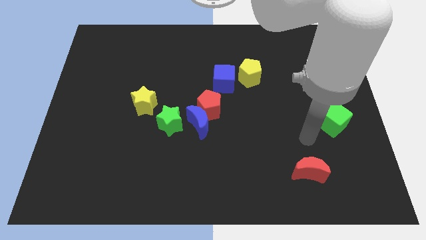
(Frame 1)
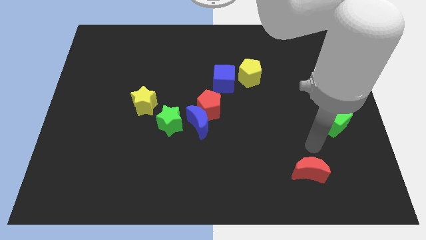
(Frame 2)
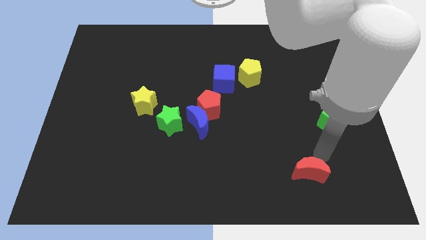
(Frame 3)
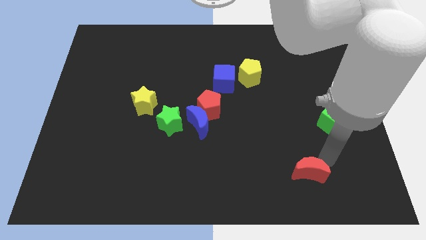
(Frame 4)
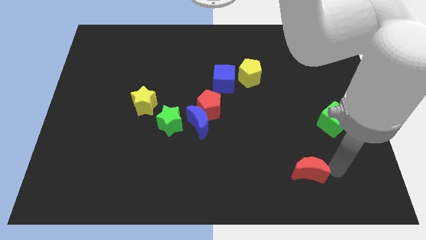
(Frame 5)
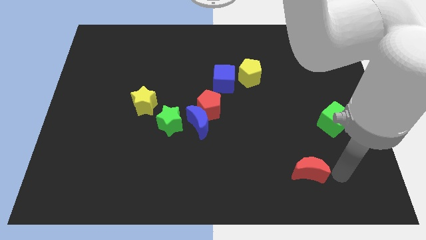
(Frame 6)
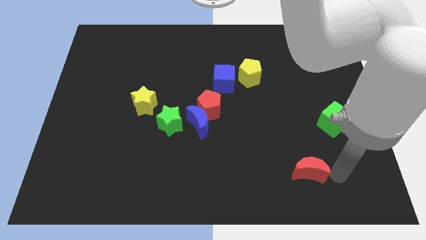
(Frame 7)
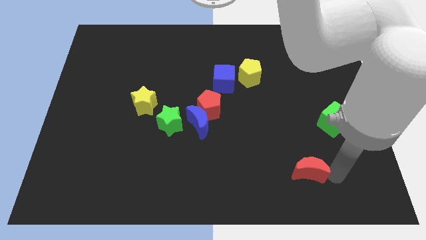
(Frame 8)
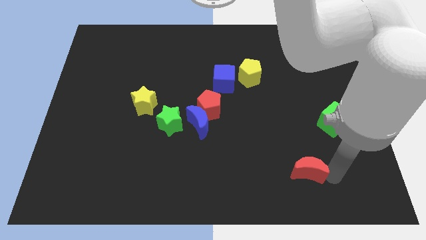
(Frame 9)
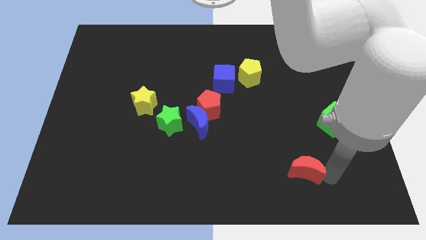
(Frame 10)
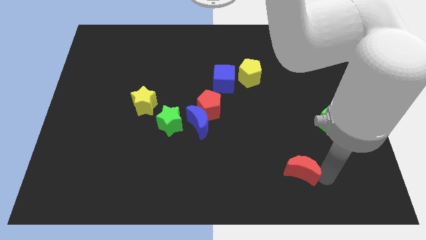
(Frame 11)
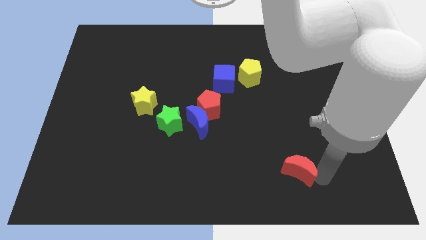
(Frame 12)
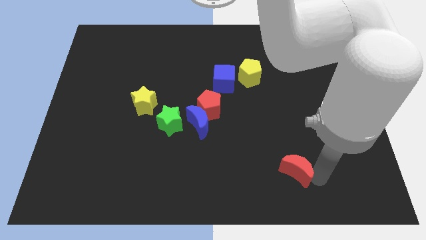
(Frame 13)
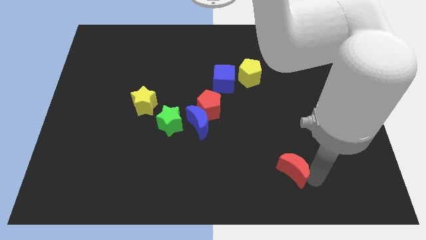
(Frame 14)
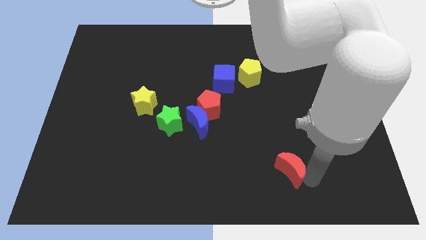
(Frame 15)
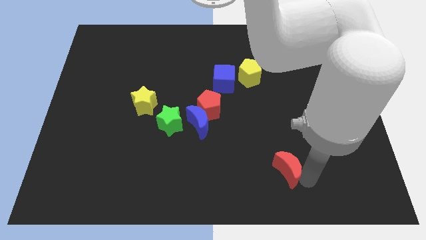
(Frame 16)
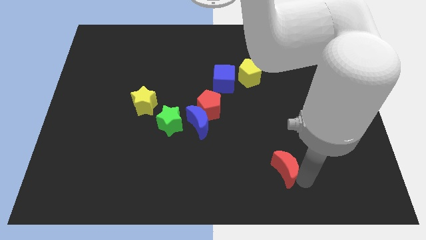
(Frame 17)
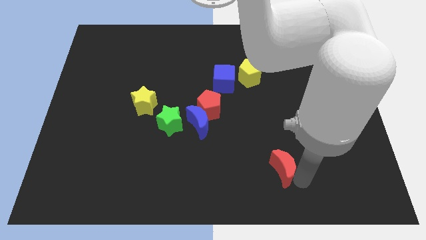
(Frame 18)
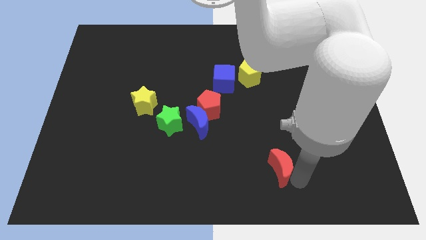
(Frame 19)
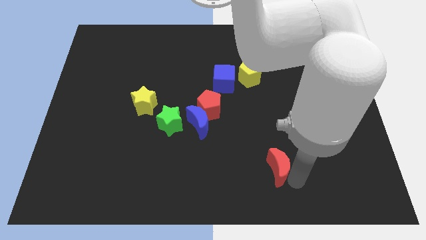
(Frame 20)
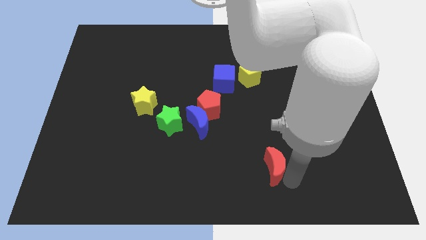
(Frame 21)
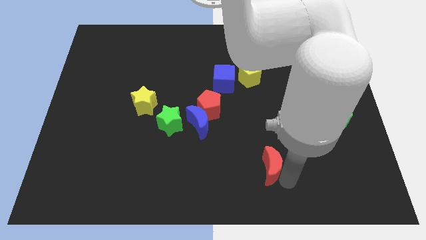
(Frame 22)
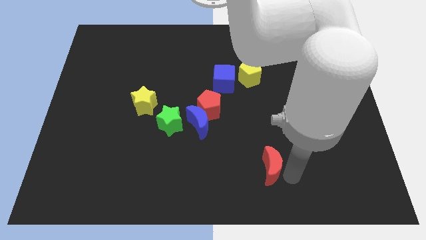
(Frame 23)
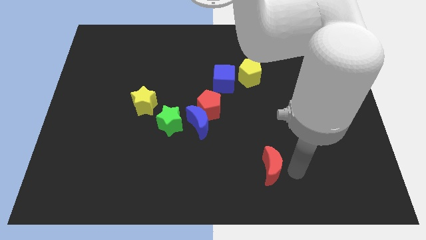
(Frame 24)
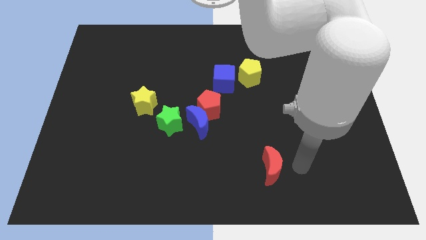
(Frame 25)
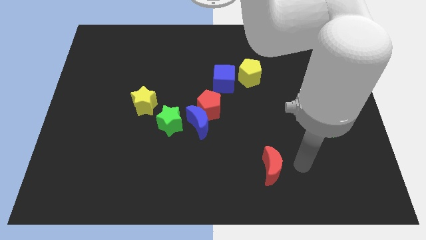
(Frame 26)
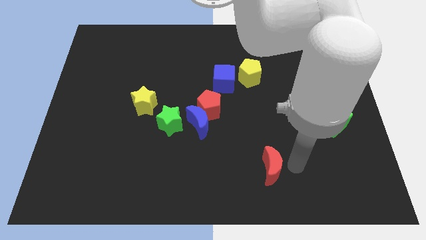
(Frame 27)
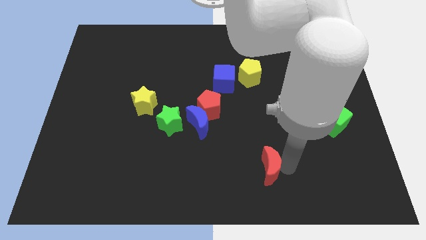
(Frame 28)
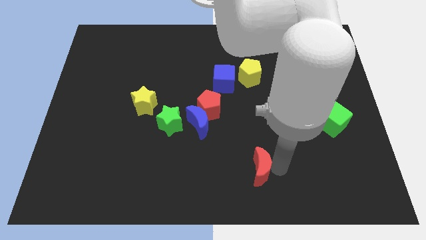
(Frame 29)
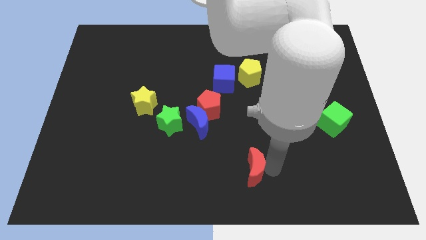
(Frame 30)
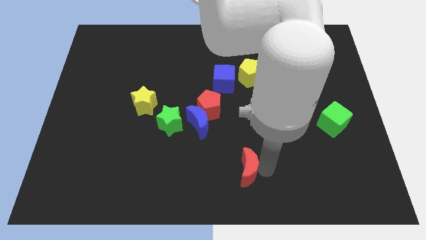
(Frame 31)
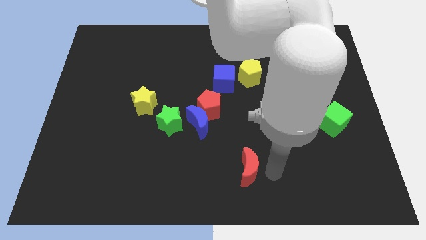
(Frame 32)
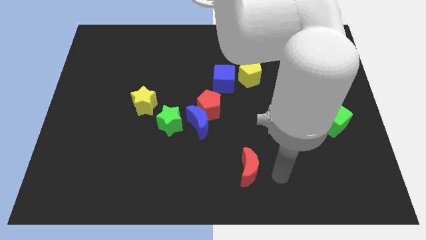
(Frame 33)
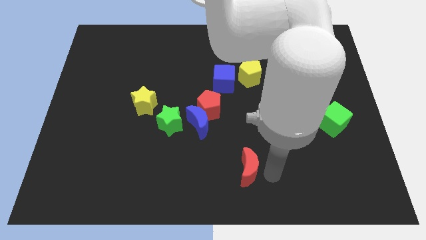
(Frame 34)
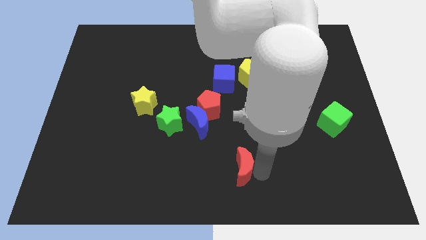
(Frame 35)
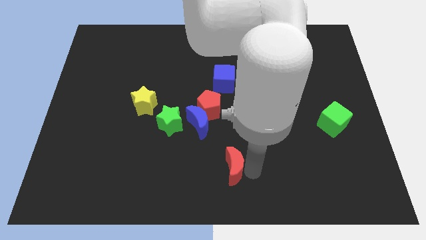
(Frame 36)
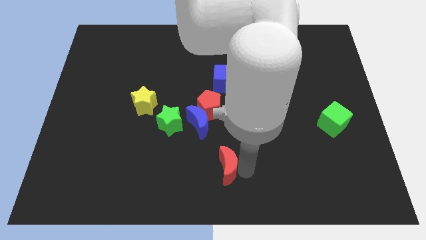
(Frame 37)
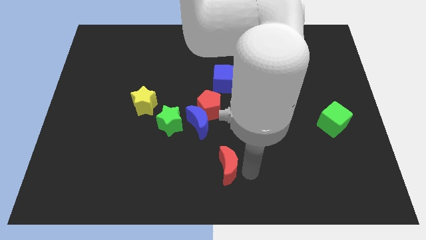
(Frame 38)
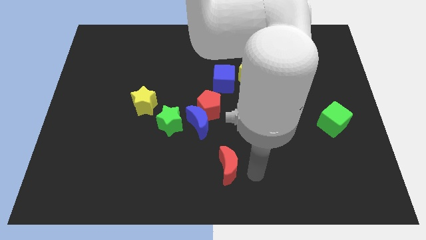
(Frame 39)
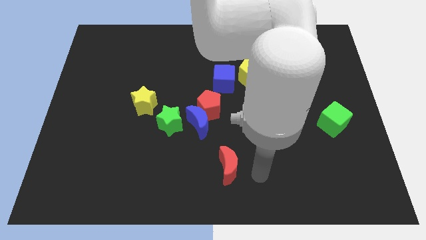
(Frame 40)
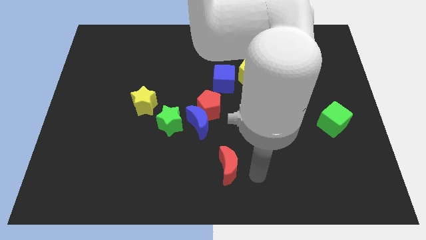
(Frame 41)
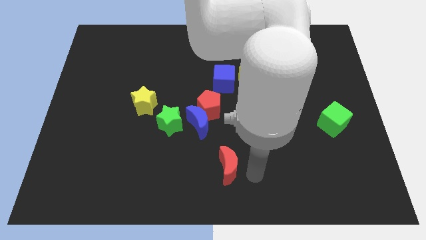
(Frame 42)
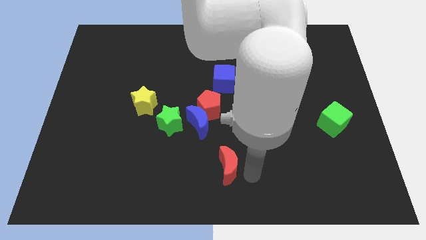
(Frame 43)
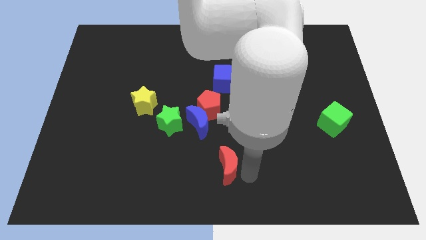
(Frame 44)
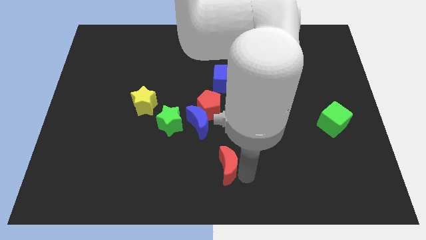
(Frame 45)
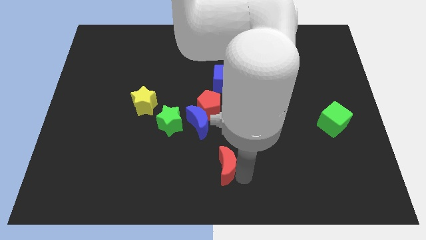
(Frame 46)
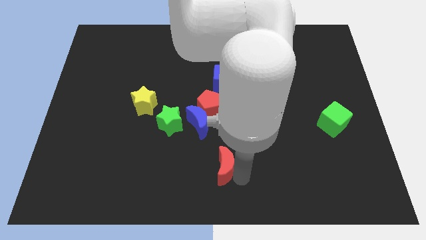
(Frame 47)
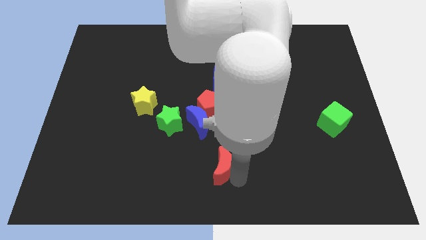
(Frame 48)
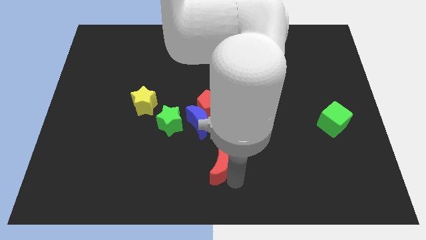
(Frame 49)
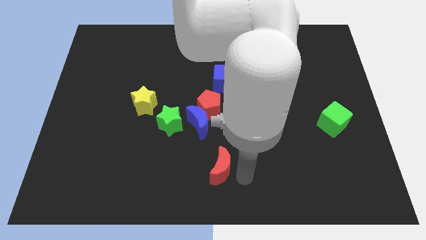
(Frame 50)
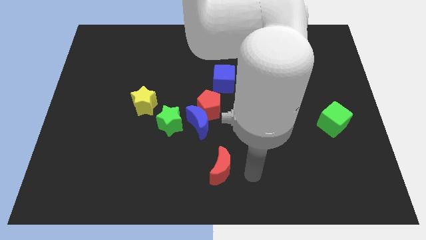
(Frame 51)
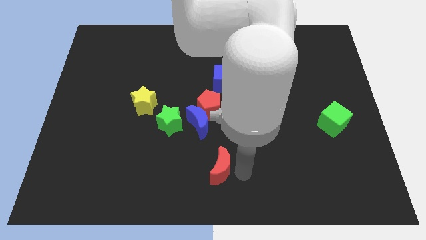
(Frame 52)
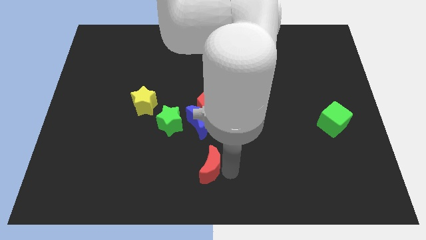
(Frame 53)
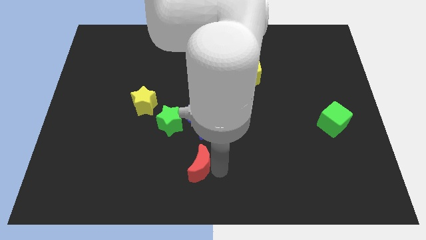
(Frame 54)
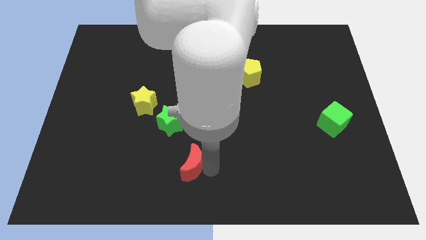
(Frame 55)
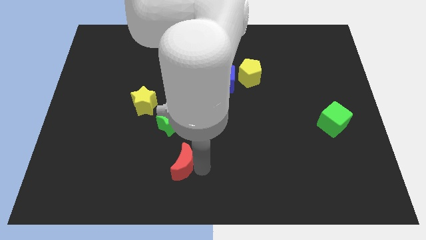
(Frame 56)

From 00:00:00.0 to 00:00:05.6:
slide the red moon below the green star

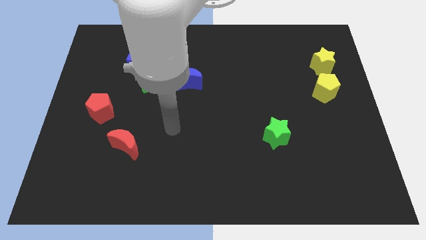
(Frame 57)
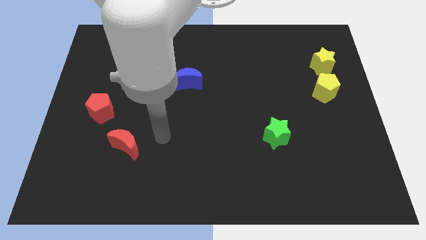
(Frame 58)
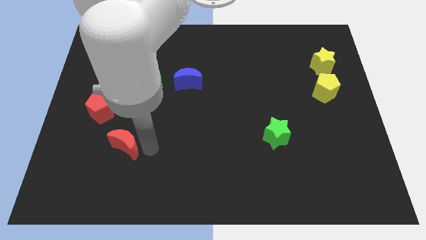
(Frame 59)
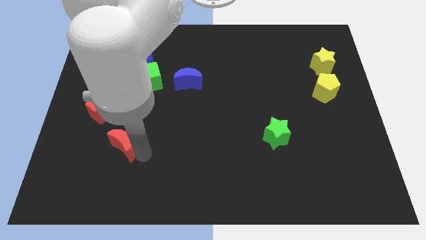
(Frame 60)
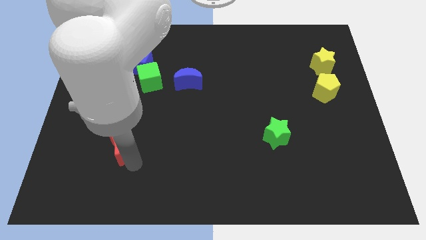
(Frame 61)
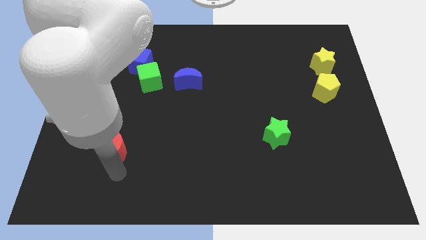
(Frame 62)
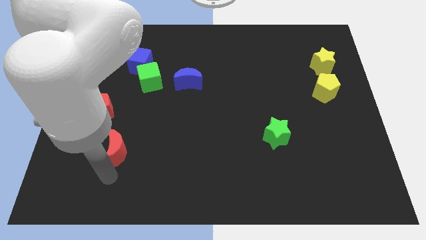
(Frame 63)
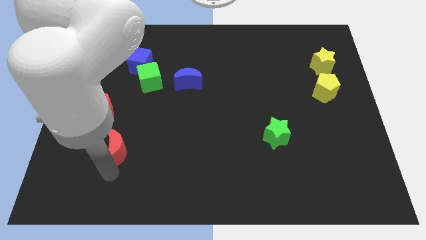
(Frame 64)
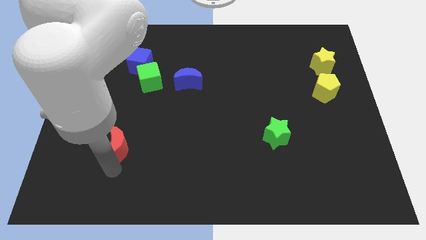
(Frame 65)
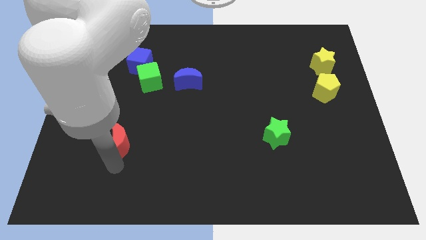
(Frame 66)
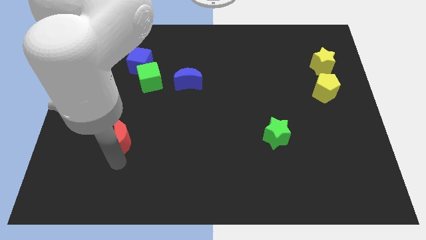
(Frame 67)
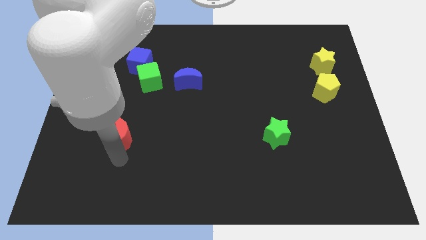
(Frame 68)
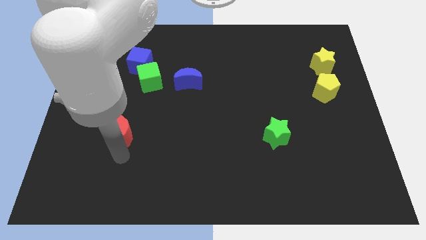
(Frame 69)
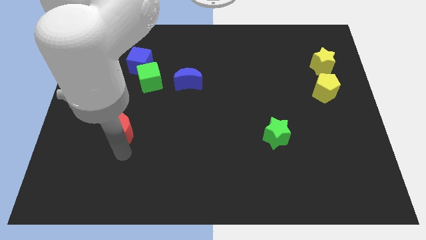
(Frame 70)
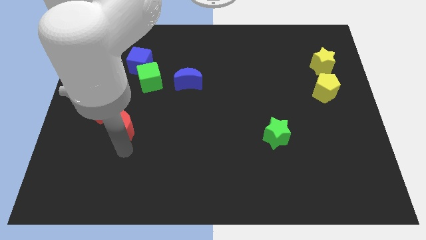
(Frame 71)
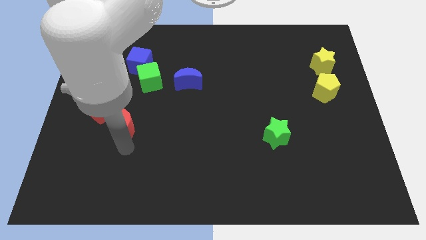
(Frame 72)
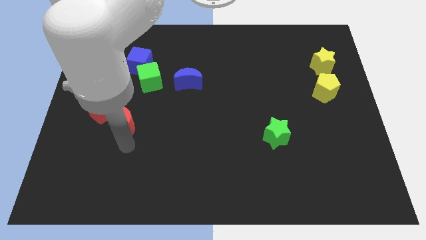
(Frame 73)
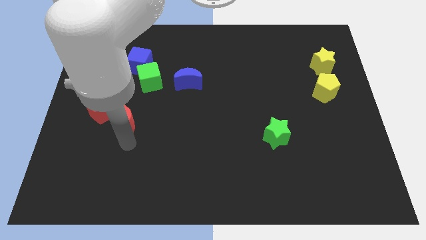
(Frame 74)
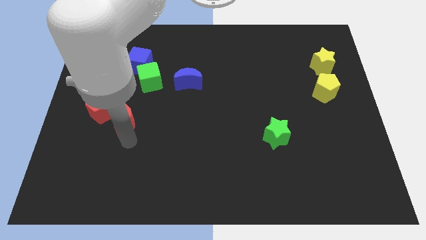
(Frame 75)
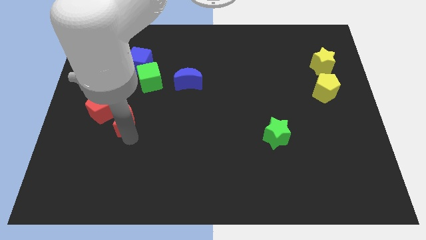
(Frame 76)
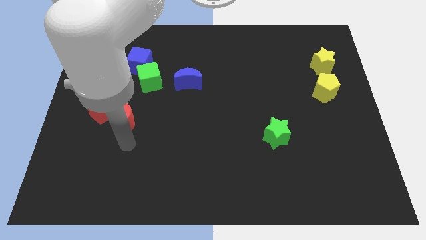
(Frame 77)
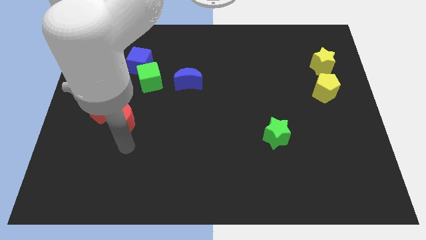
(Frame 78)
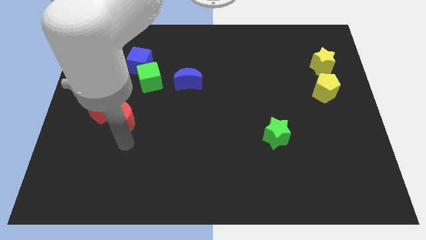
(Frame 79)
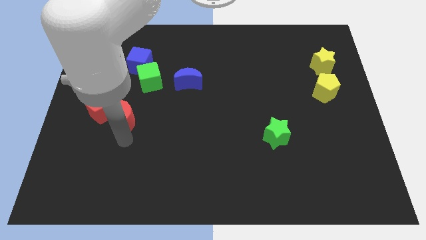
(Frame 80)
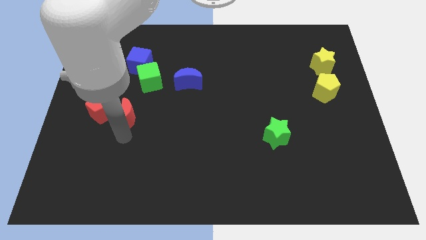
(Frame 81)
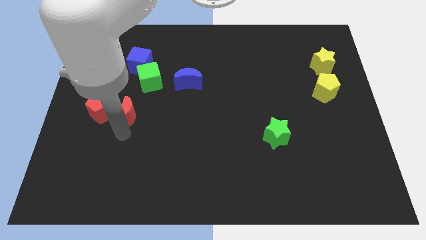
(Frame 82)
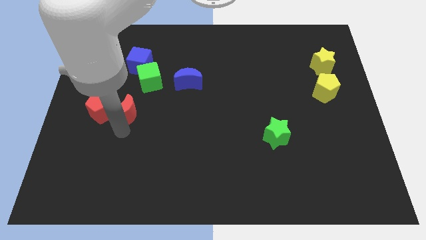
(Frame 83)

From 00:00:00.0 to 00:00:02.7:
slide the red moon diagonally up and to the right of the red pentagon
